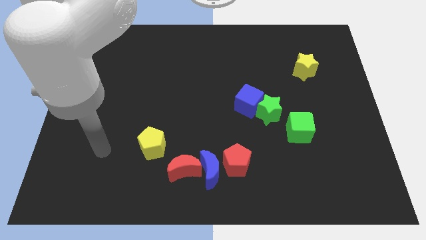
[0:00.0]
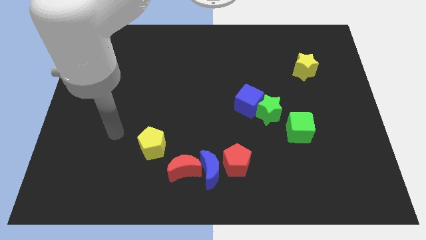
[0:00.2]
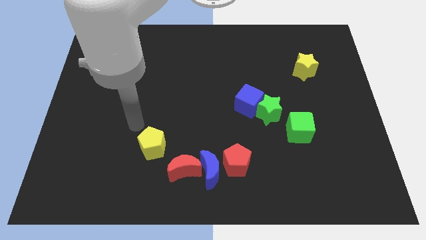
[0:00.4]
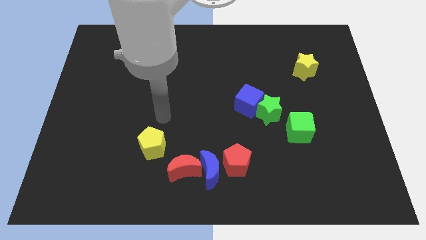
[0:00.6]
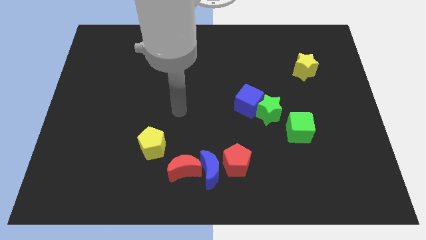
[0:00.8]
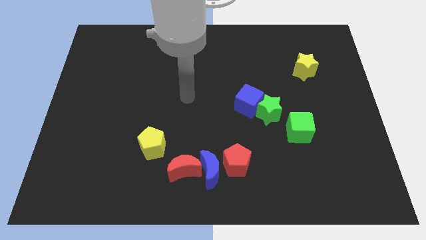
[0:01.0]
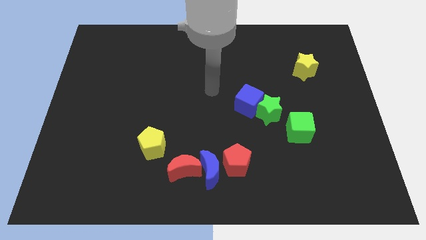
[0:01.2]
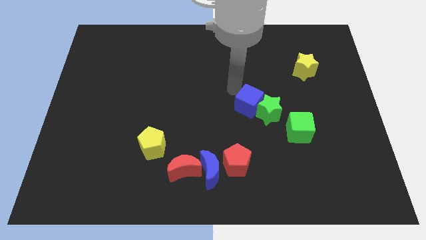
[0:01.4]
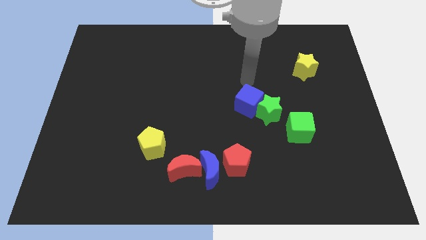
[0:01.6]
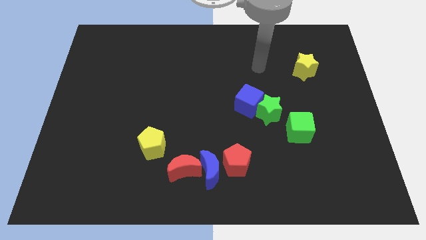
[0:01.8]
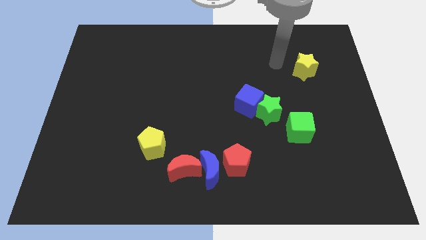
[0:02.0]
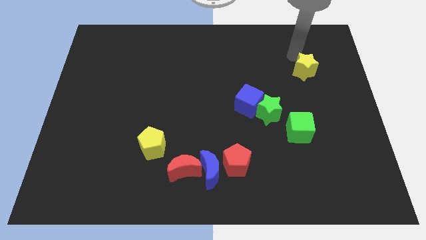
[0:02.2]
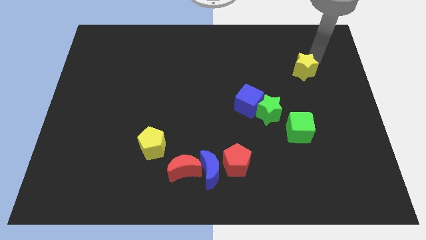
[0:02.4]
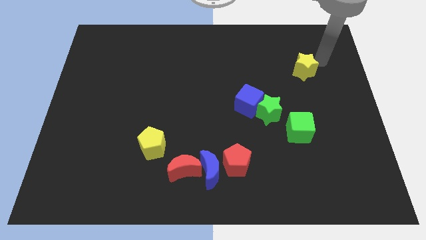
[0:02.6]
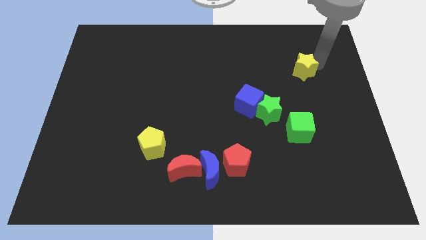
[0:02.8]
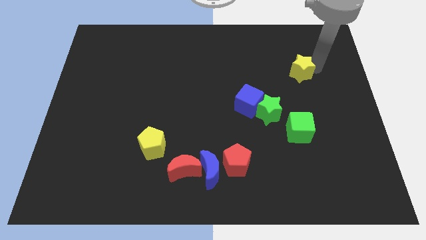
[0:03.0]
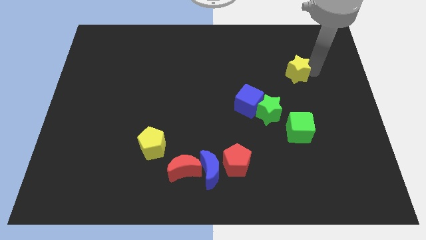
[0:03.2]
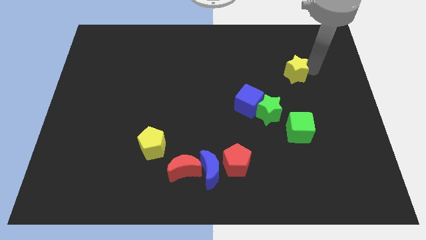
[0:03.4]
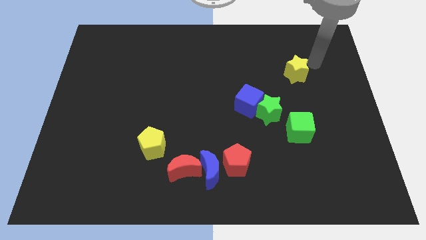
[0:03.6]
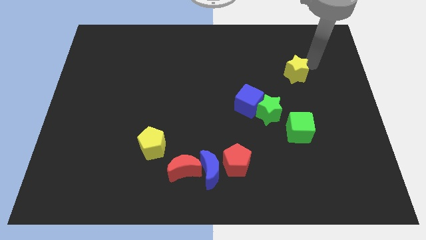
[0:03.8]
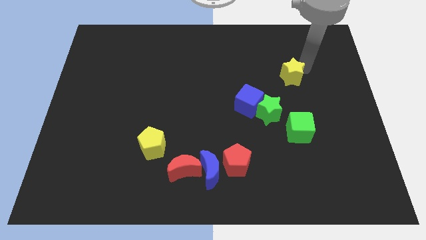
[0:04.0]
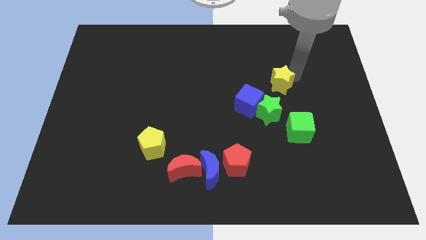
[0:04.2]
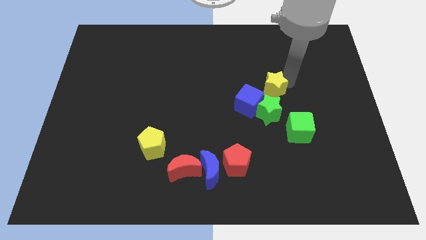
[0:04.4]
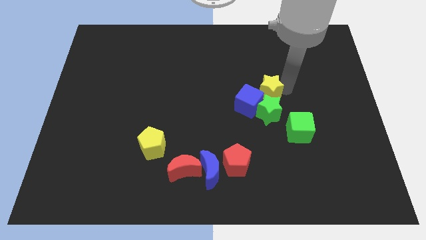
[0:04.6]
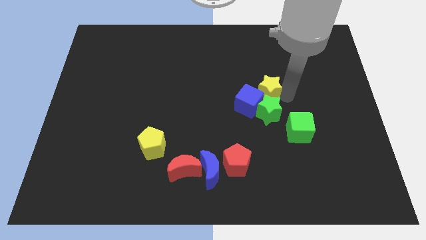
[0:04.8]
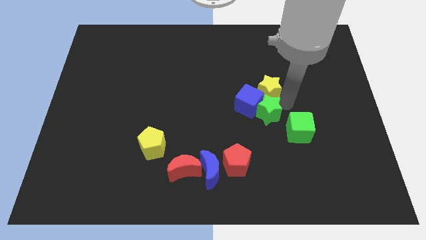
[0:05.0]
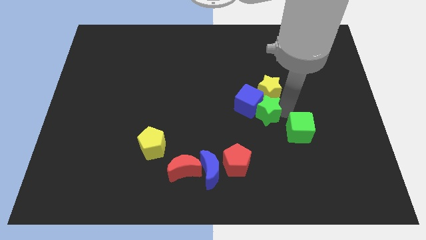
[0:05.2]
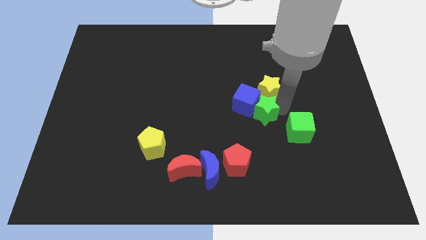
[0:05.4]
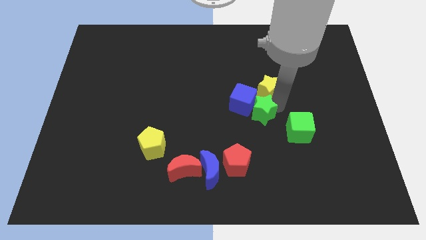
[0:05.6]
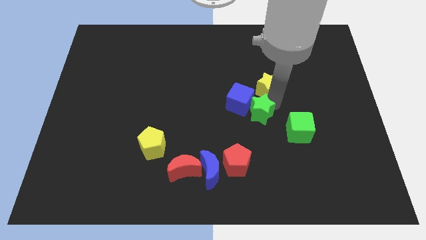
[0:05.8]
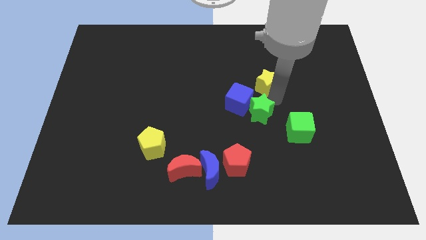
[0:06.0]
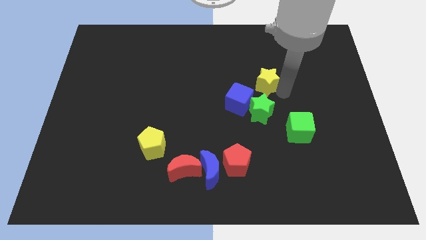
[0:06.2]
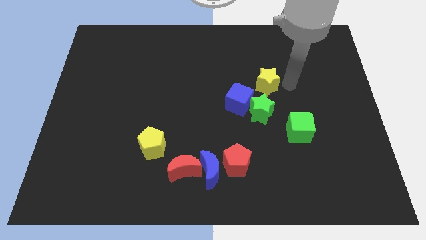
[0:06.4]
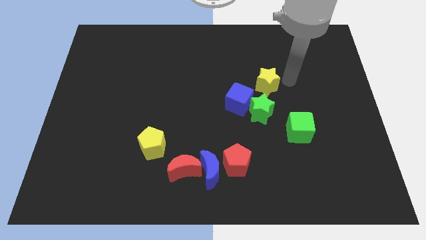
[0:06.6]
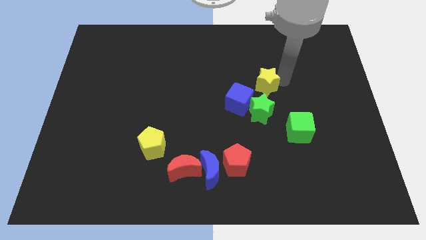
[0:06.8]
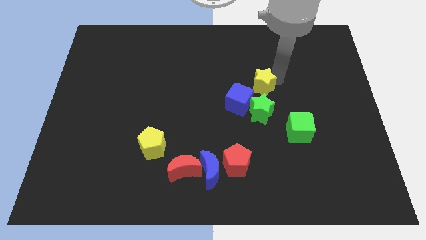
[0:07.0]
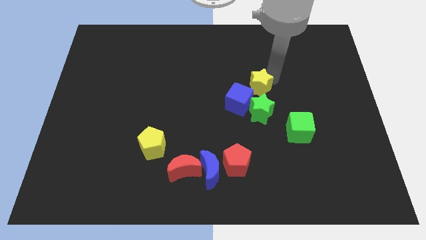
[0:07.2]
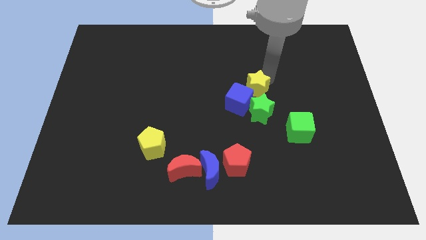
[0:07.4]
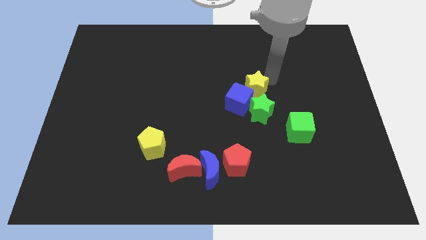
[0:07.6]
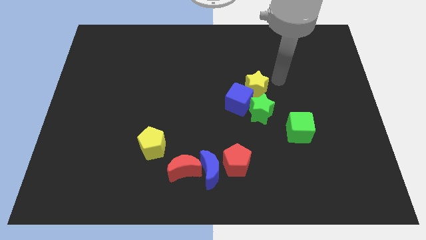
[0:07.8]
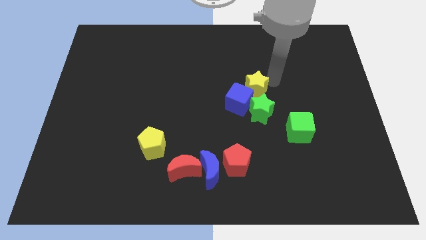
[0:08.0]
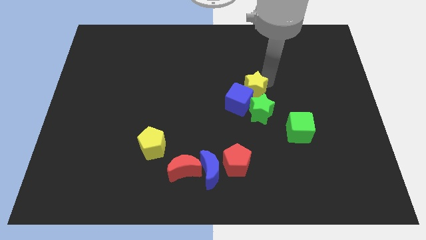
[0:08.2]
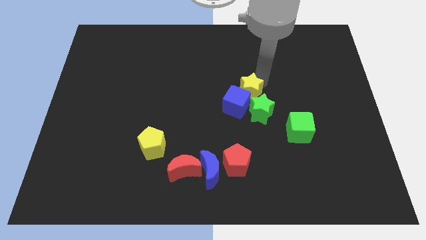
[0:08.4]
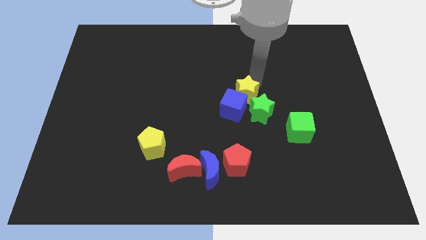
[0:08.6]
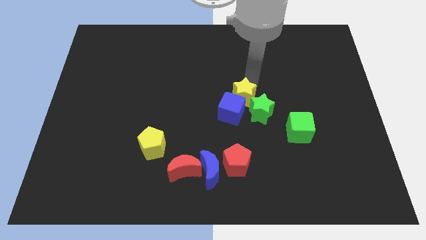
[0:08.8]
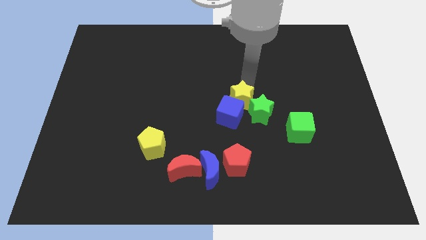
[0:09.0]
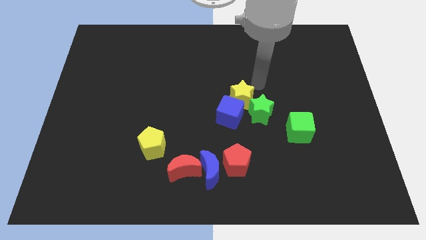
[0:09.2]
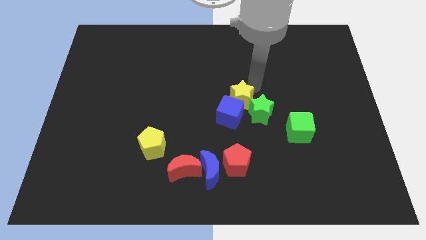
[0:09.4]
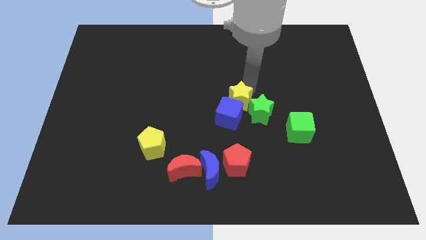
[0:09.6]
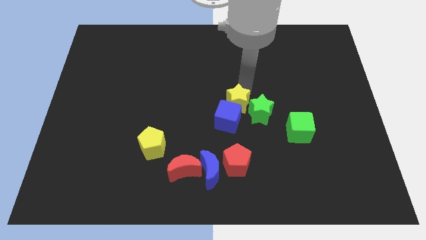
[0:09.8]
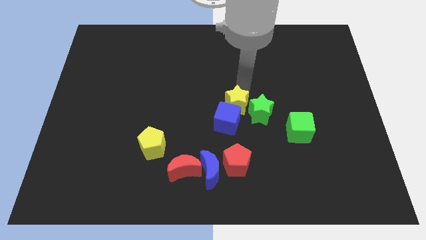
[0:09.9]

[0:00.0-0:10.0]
move the yellow star downwards and then left

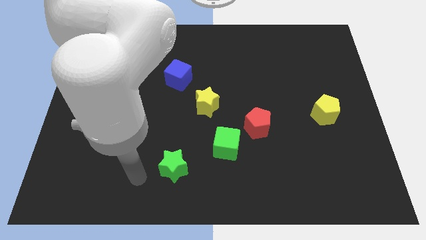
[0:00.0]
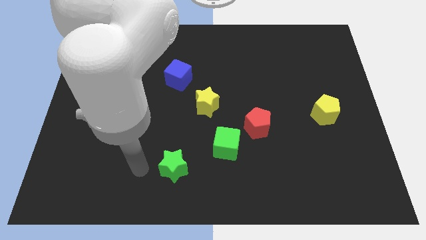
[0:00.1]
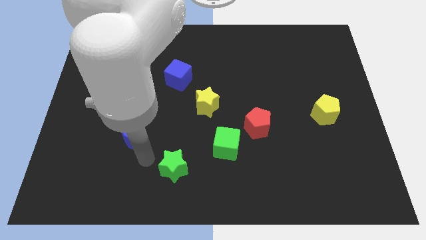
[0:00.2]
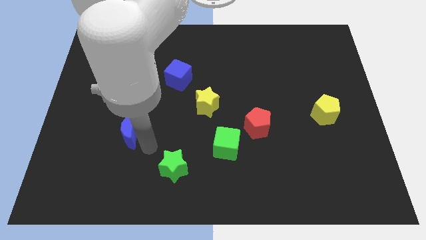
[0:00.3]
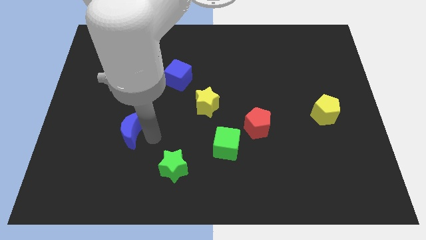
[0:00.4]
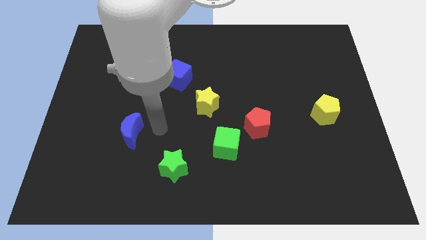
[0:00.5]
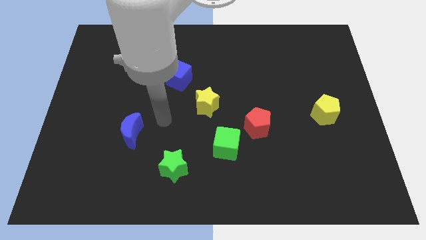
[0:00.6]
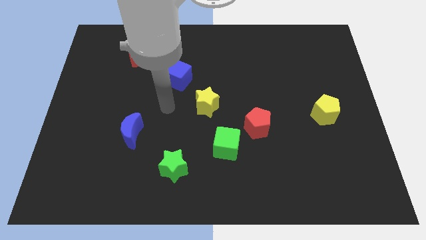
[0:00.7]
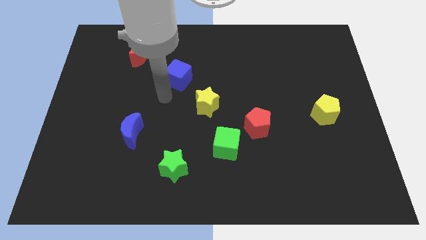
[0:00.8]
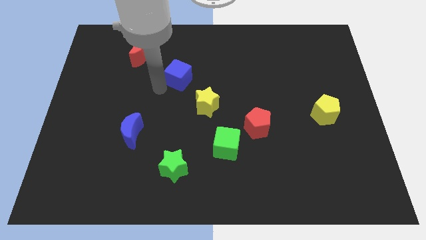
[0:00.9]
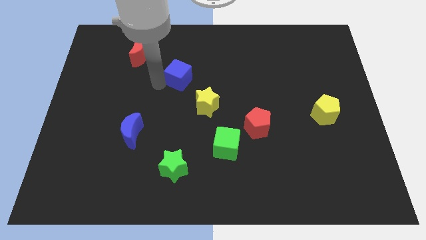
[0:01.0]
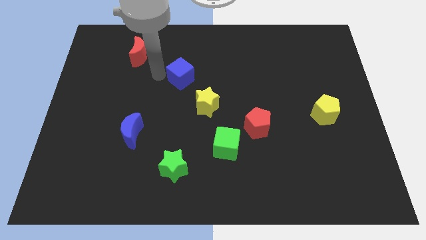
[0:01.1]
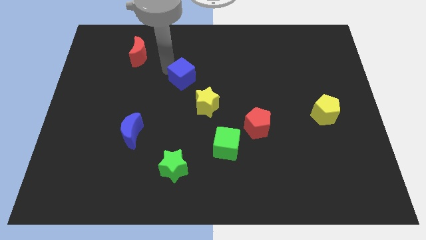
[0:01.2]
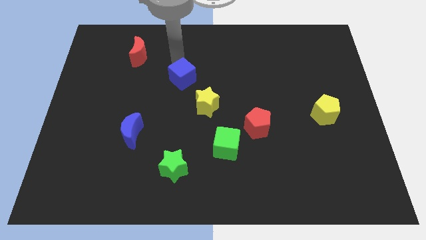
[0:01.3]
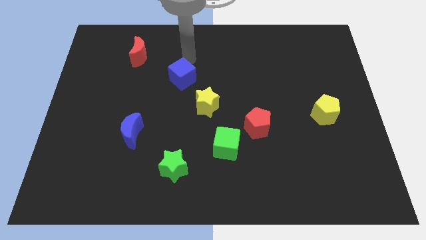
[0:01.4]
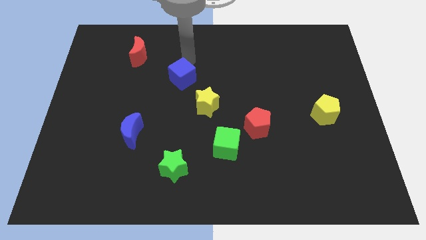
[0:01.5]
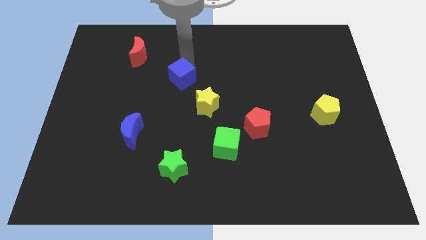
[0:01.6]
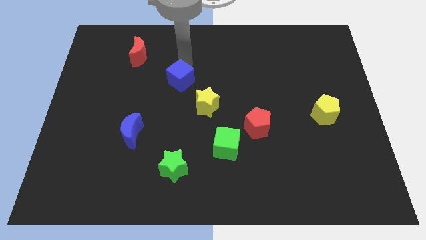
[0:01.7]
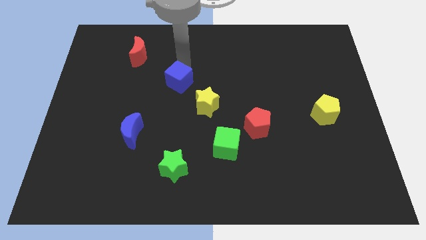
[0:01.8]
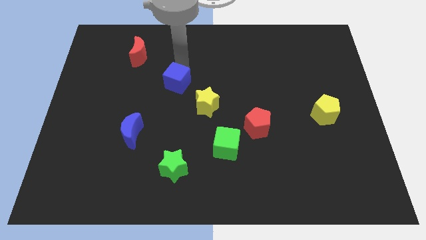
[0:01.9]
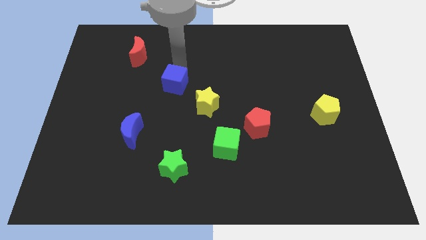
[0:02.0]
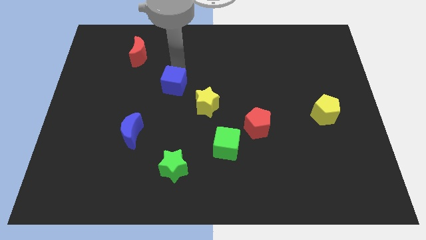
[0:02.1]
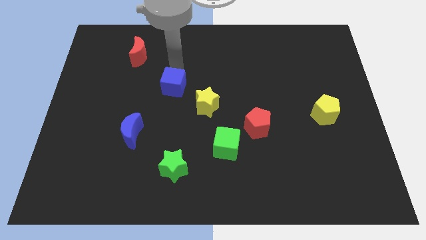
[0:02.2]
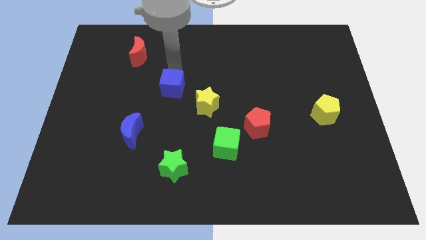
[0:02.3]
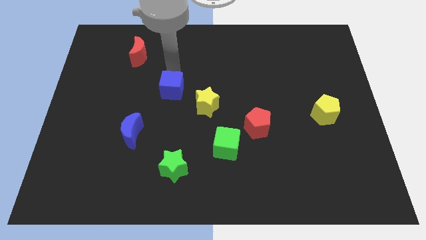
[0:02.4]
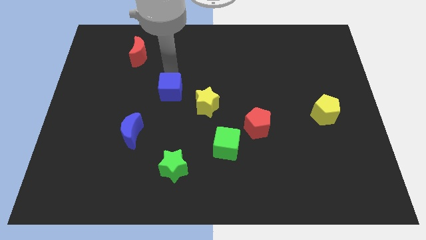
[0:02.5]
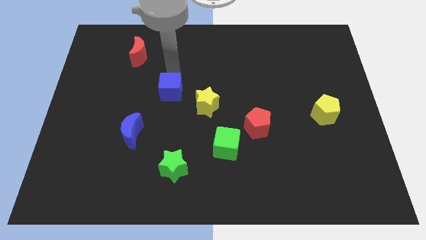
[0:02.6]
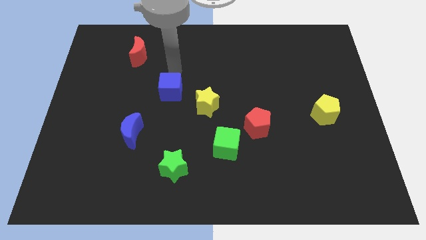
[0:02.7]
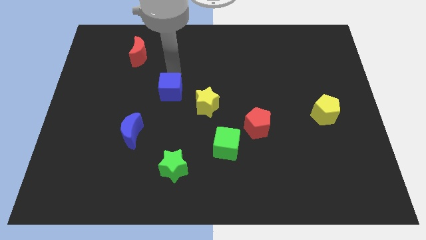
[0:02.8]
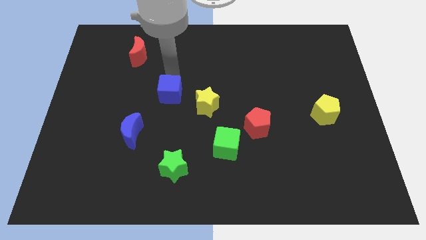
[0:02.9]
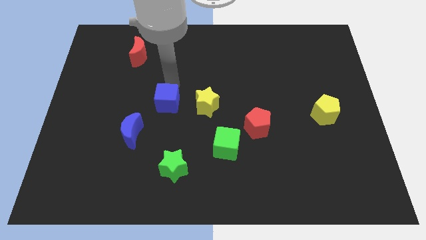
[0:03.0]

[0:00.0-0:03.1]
slightly slide the blue cube down
